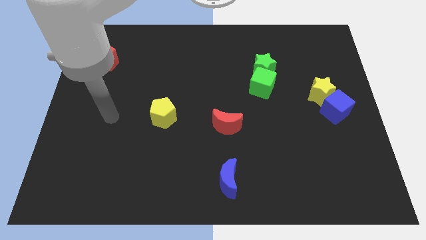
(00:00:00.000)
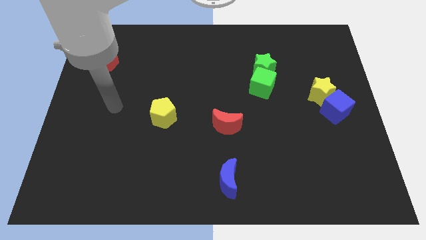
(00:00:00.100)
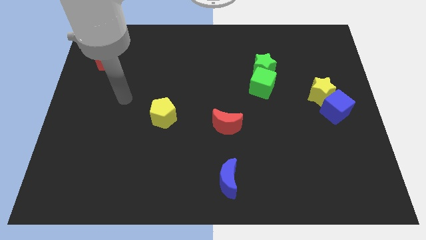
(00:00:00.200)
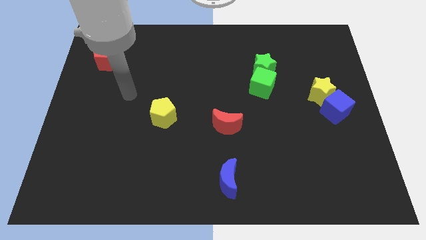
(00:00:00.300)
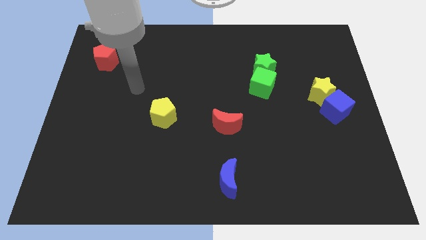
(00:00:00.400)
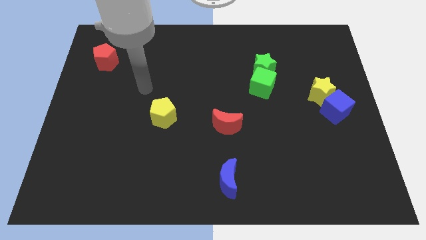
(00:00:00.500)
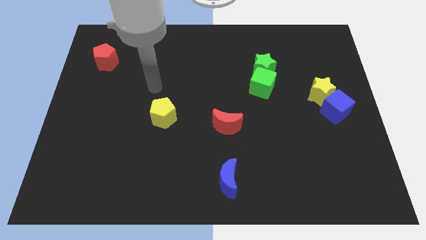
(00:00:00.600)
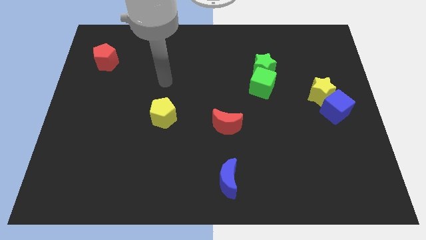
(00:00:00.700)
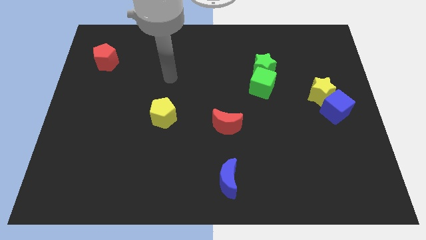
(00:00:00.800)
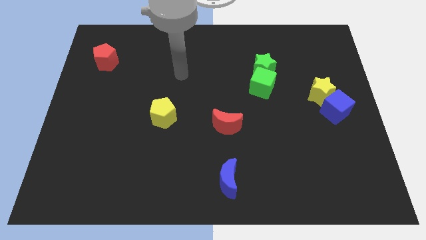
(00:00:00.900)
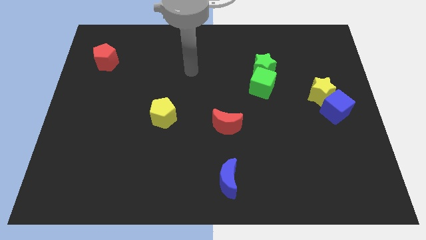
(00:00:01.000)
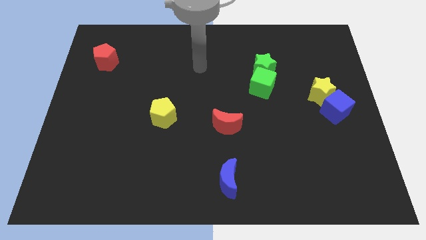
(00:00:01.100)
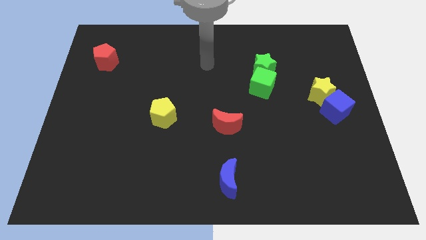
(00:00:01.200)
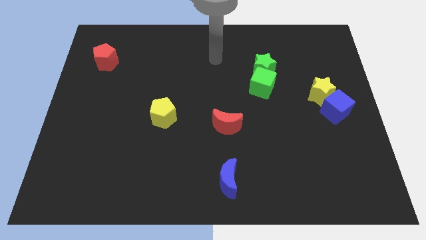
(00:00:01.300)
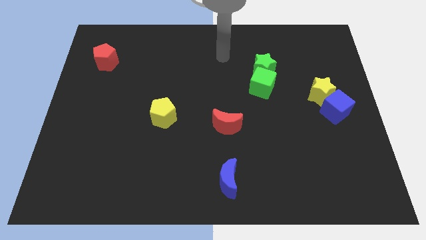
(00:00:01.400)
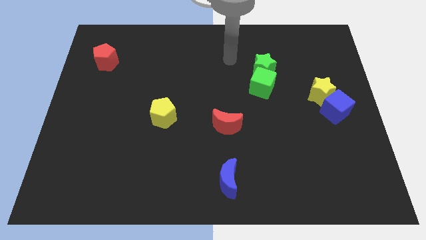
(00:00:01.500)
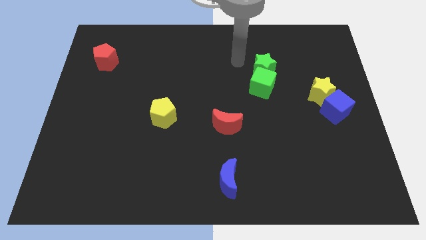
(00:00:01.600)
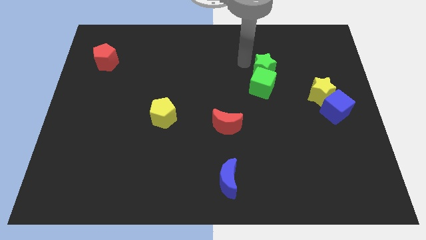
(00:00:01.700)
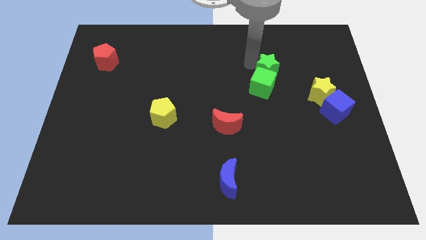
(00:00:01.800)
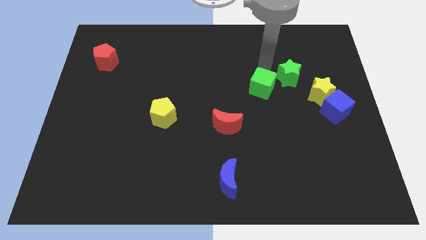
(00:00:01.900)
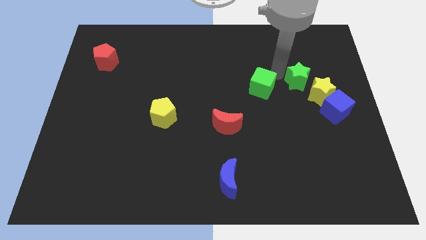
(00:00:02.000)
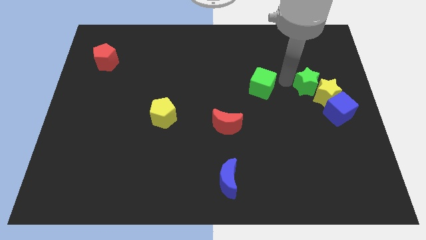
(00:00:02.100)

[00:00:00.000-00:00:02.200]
separate the green cube from the green star

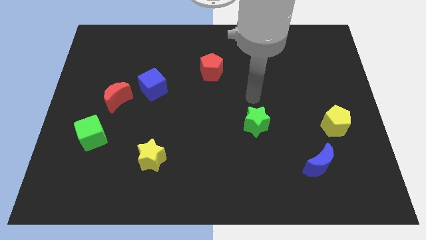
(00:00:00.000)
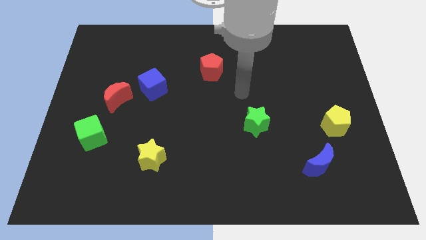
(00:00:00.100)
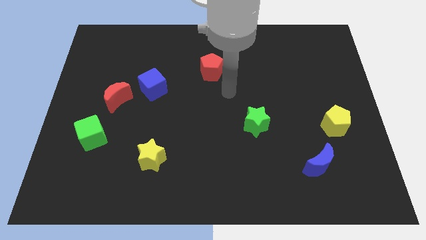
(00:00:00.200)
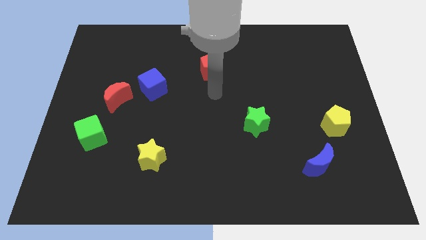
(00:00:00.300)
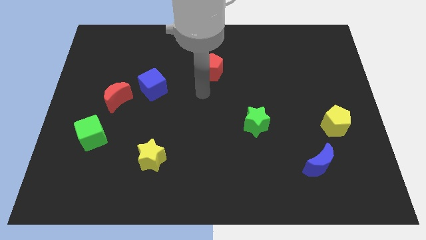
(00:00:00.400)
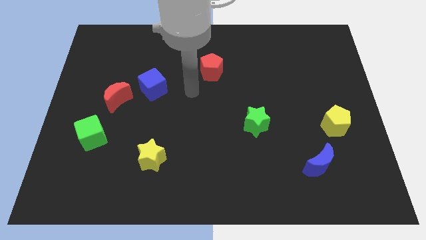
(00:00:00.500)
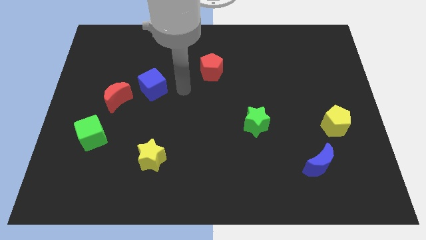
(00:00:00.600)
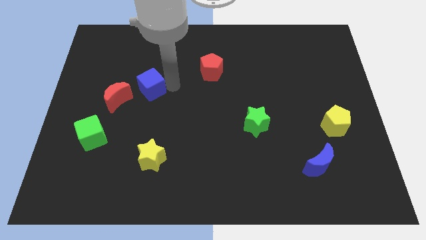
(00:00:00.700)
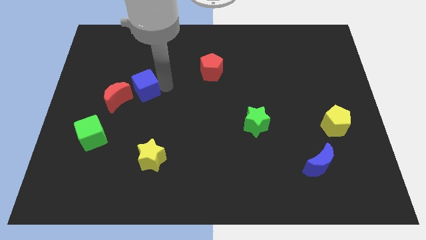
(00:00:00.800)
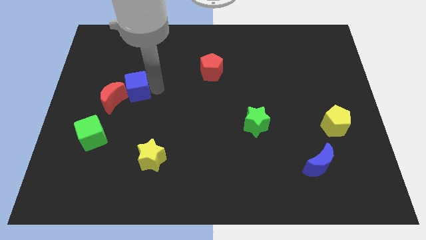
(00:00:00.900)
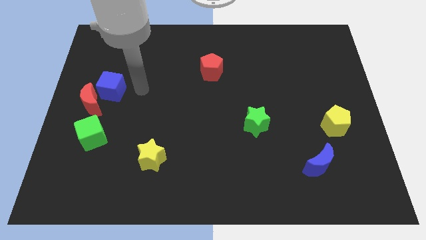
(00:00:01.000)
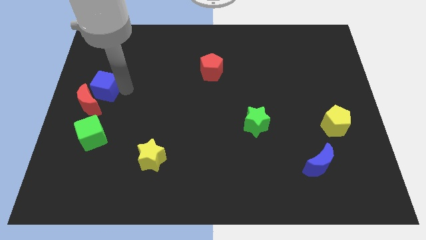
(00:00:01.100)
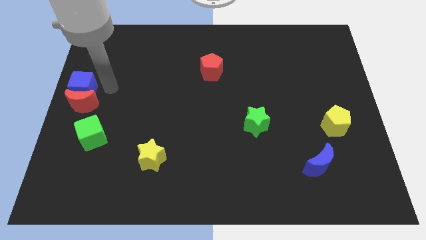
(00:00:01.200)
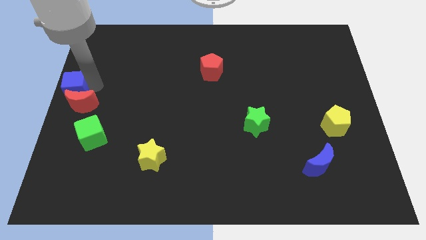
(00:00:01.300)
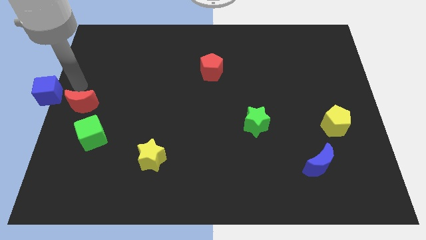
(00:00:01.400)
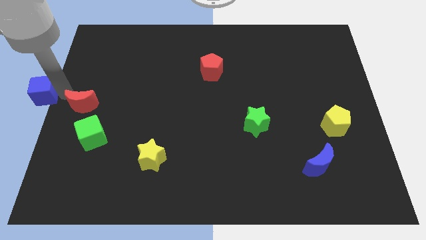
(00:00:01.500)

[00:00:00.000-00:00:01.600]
separate the red moon from the blue cube

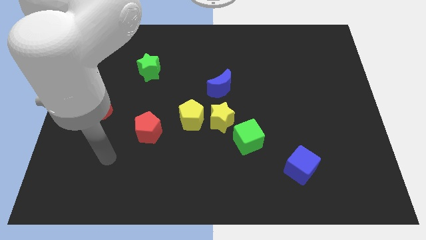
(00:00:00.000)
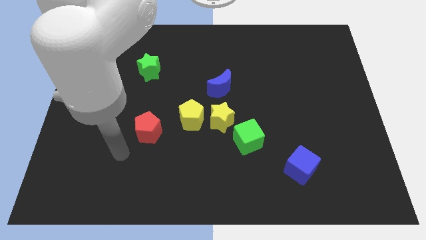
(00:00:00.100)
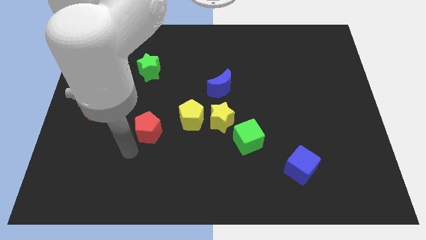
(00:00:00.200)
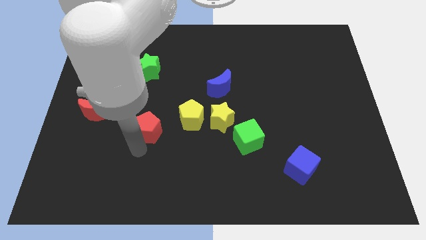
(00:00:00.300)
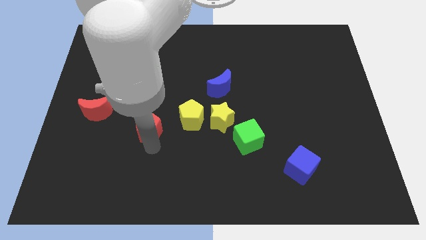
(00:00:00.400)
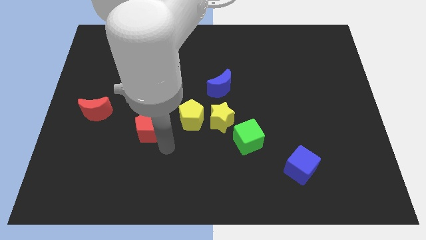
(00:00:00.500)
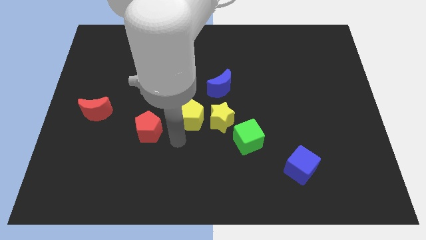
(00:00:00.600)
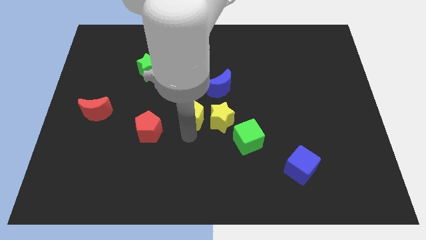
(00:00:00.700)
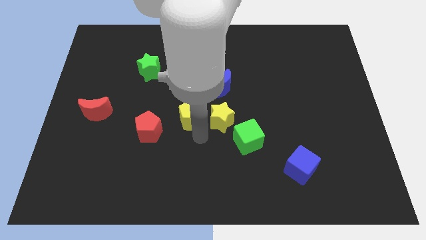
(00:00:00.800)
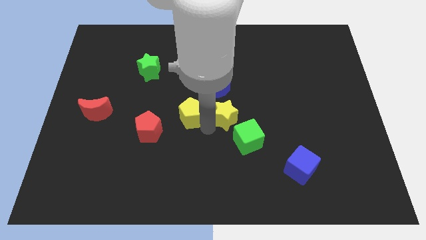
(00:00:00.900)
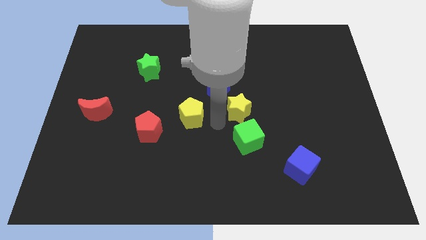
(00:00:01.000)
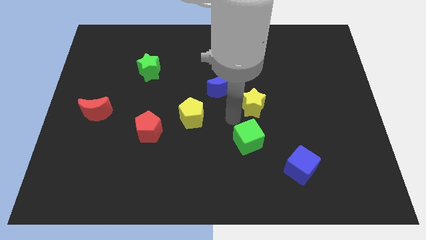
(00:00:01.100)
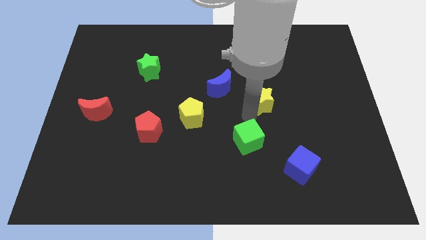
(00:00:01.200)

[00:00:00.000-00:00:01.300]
separate the green cube from the yellow star

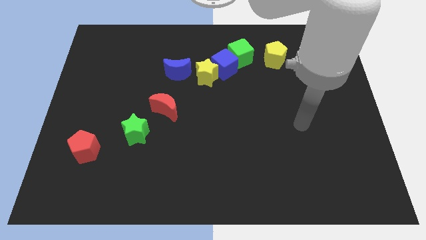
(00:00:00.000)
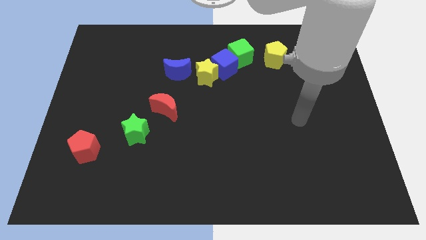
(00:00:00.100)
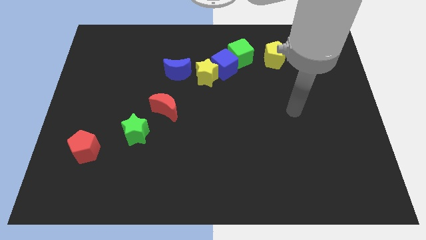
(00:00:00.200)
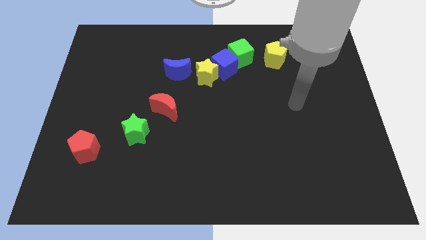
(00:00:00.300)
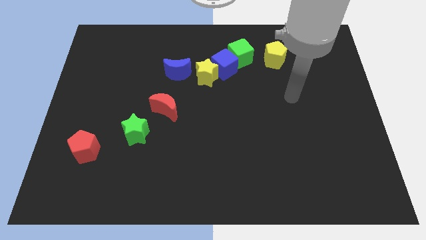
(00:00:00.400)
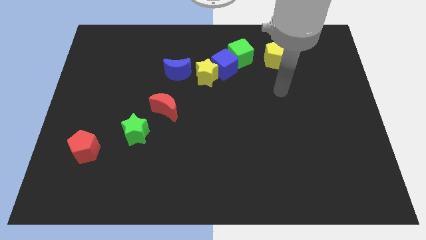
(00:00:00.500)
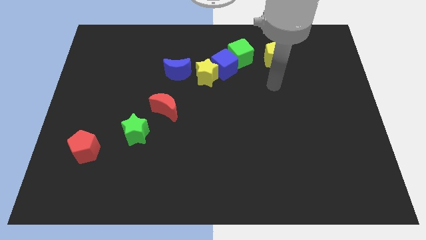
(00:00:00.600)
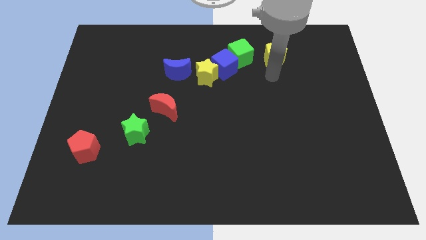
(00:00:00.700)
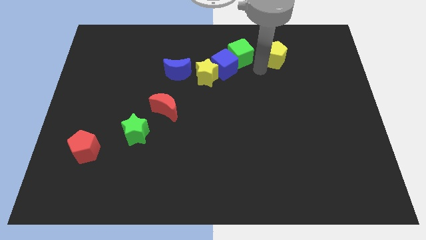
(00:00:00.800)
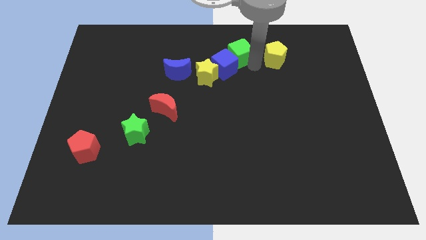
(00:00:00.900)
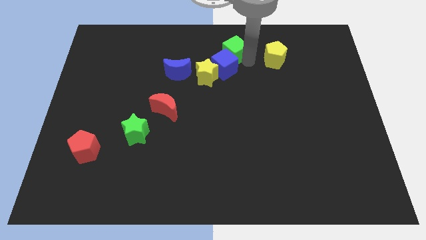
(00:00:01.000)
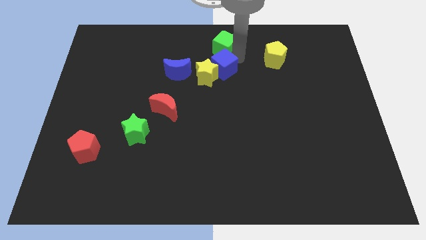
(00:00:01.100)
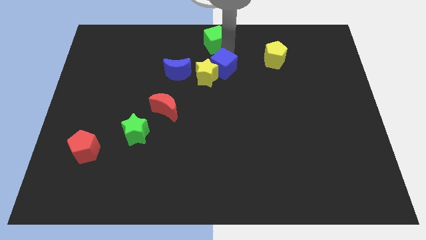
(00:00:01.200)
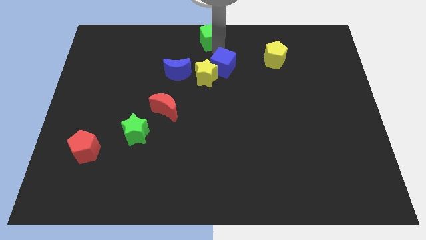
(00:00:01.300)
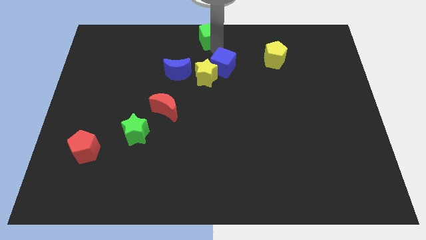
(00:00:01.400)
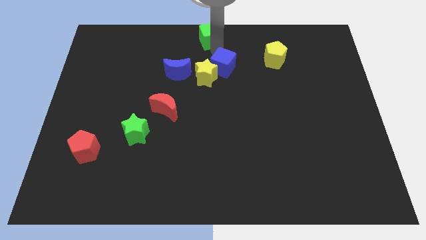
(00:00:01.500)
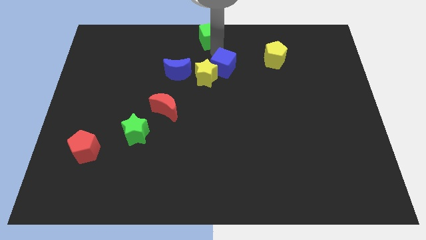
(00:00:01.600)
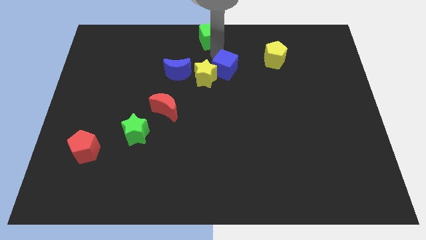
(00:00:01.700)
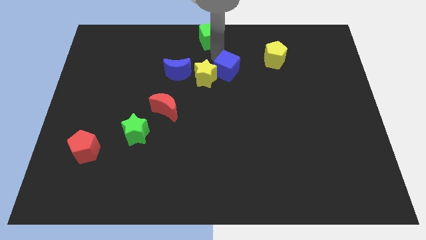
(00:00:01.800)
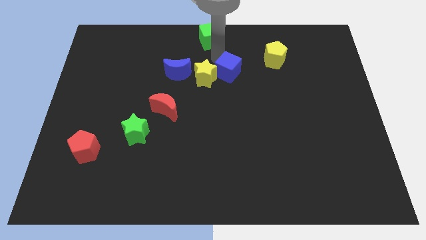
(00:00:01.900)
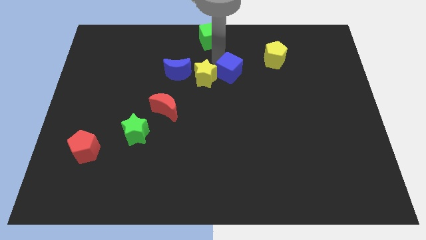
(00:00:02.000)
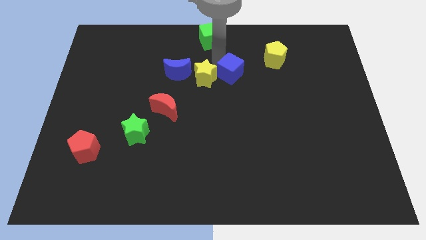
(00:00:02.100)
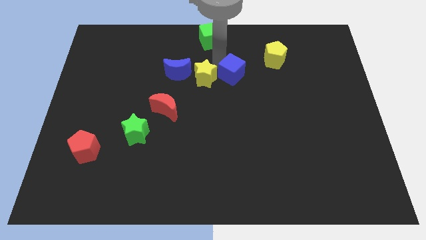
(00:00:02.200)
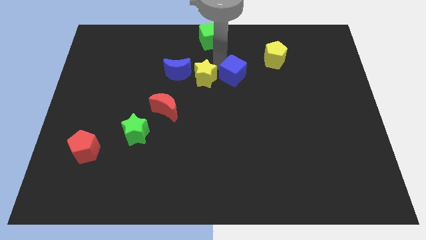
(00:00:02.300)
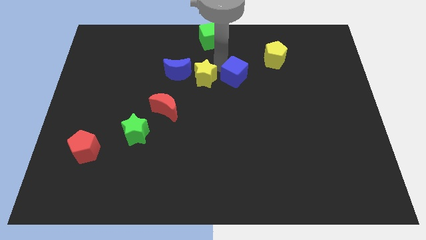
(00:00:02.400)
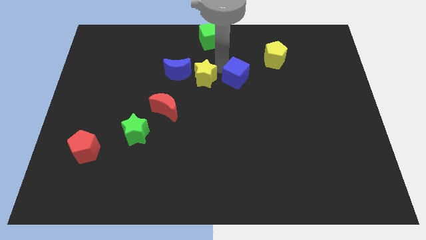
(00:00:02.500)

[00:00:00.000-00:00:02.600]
separate the blue cube from the yellow star and green cube

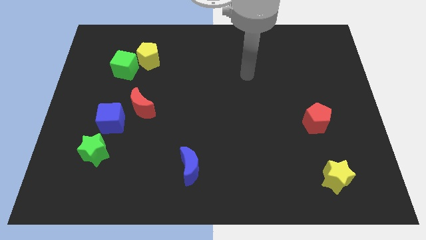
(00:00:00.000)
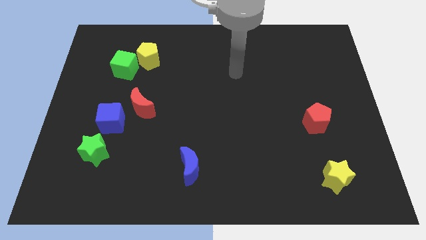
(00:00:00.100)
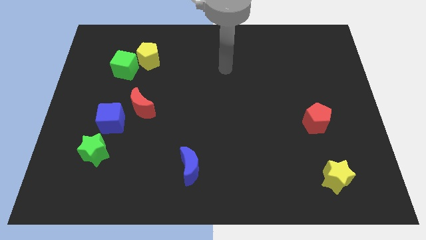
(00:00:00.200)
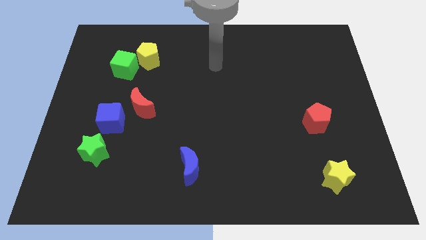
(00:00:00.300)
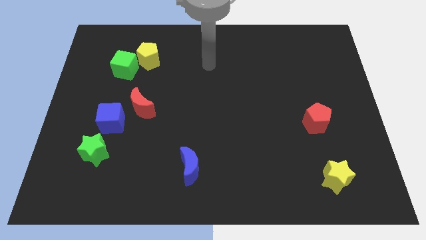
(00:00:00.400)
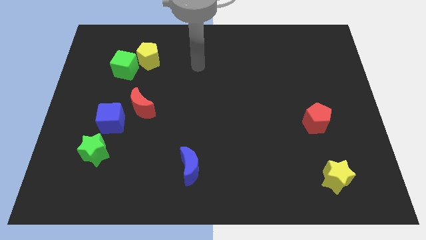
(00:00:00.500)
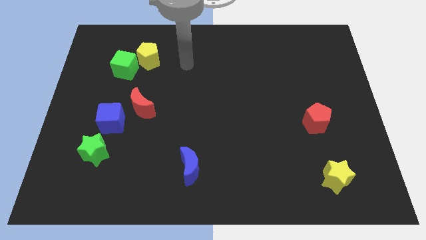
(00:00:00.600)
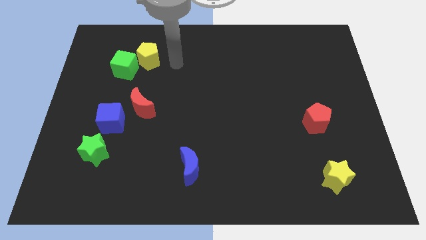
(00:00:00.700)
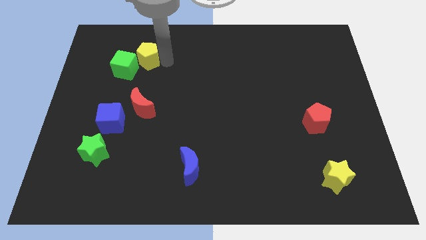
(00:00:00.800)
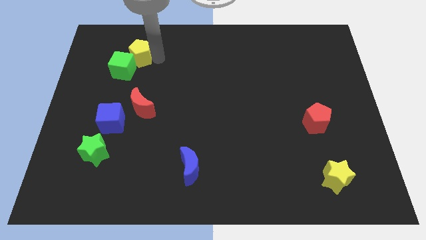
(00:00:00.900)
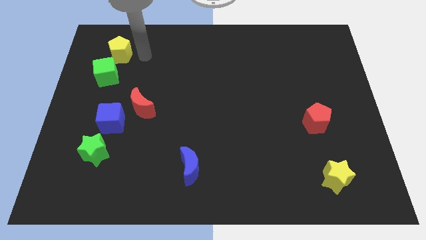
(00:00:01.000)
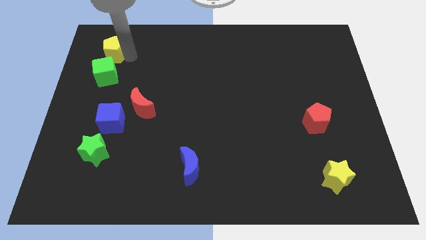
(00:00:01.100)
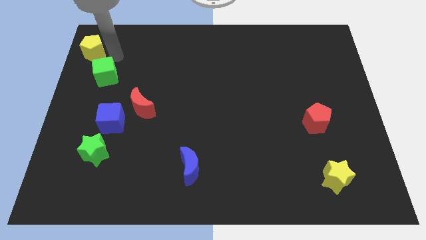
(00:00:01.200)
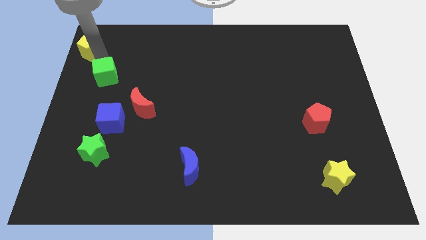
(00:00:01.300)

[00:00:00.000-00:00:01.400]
pull the green cube apart from the yellow pentagon
